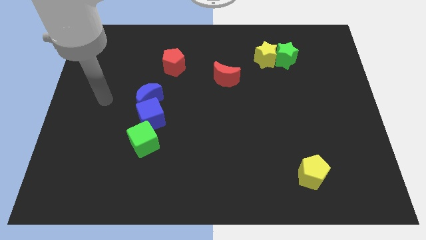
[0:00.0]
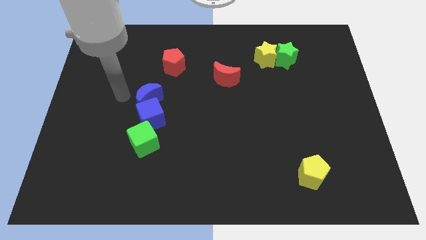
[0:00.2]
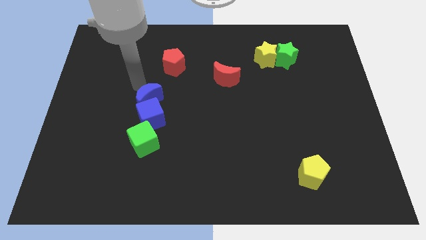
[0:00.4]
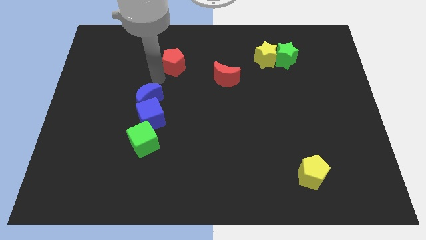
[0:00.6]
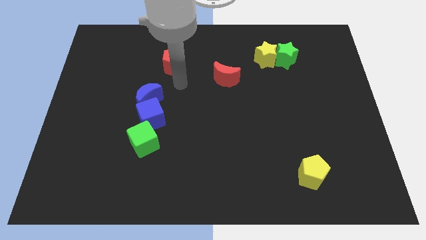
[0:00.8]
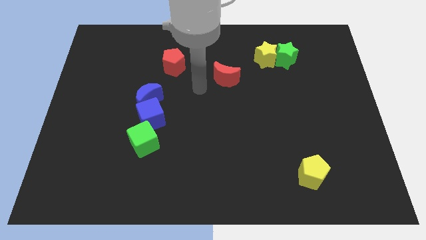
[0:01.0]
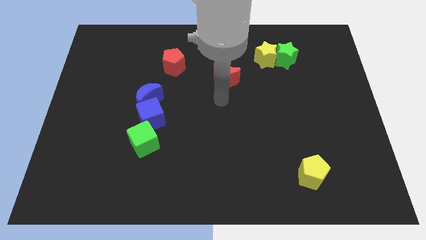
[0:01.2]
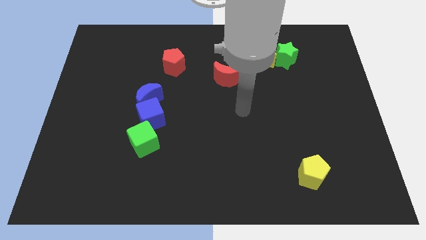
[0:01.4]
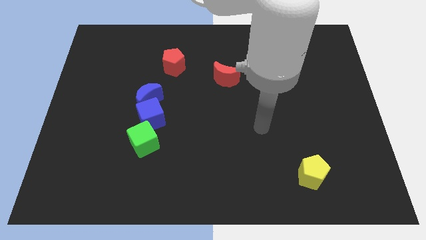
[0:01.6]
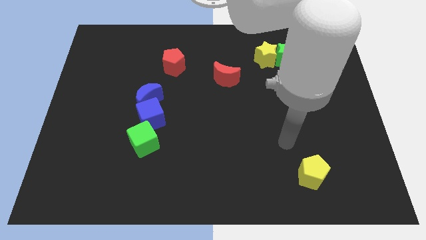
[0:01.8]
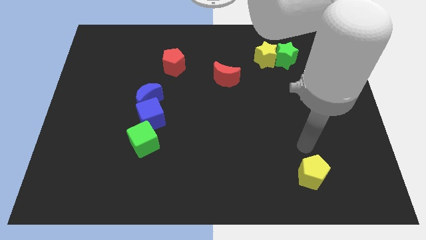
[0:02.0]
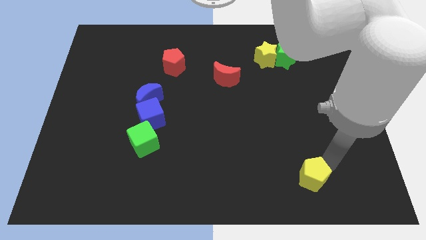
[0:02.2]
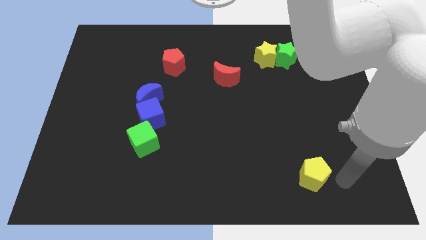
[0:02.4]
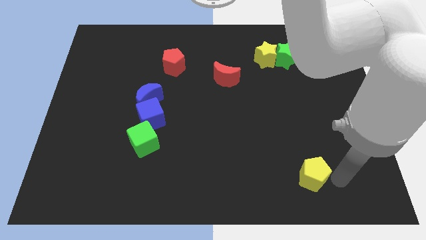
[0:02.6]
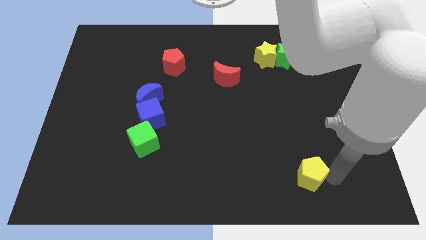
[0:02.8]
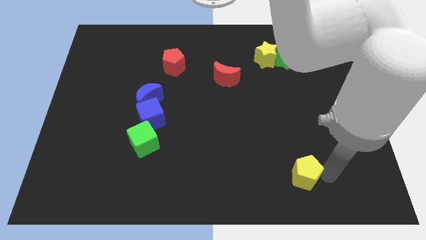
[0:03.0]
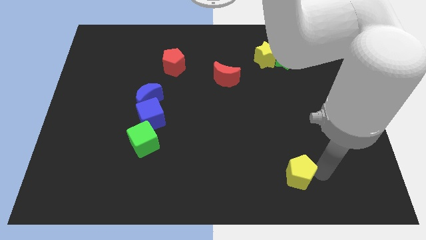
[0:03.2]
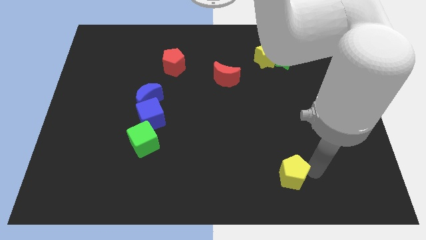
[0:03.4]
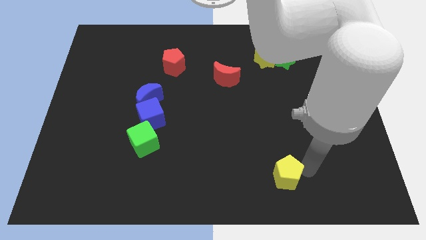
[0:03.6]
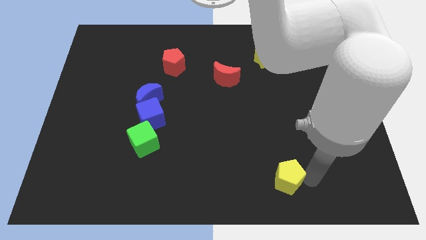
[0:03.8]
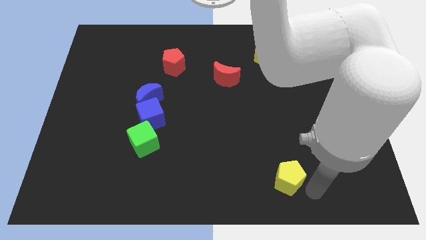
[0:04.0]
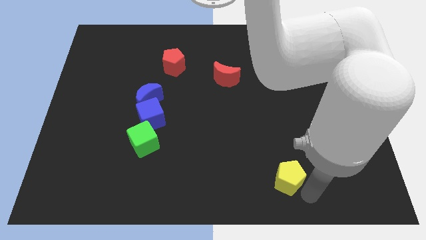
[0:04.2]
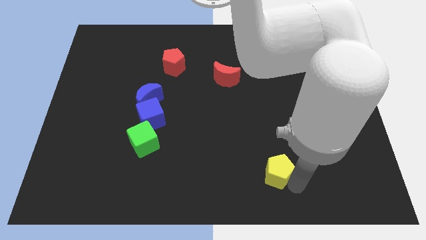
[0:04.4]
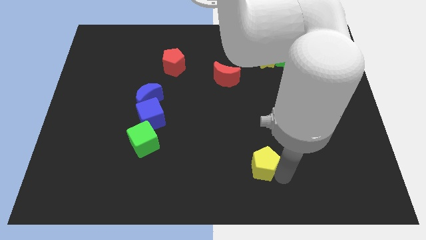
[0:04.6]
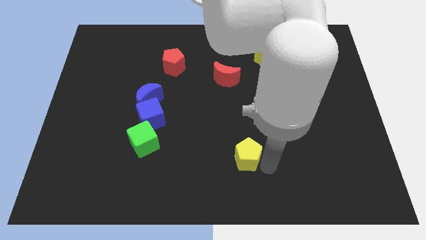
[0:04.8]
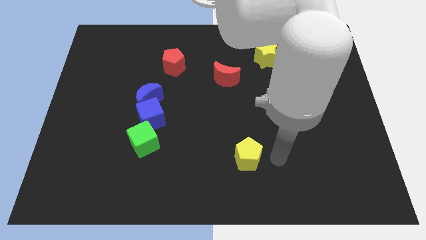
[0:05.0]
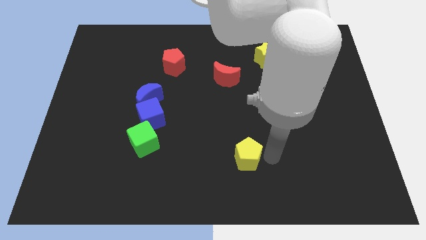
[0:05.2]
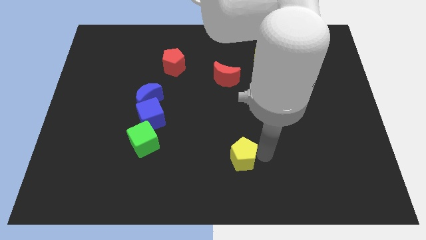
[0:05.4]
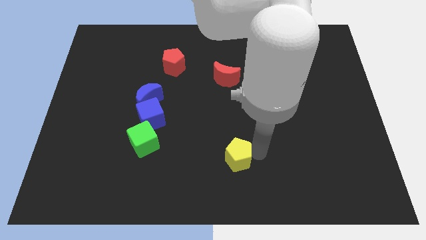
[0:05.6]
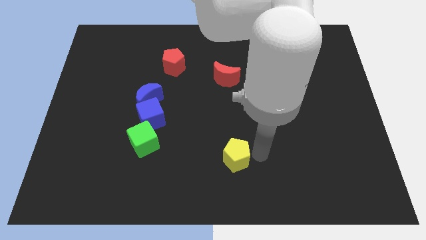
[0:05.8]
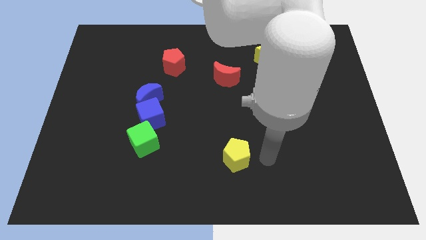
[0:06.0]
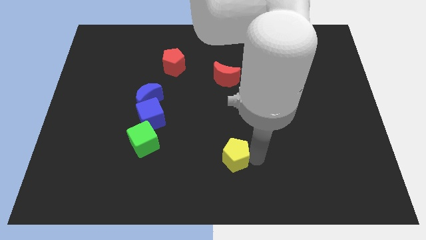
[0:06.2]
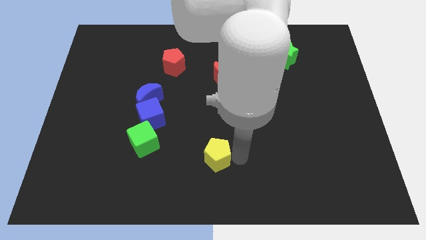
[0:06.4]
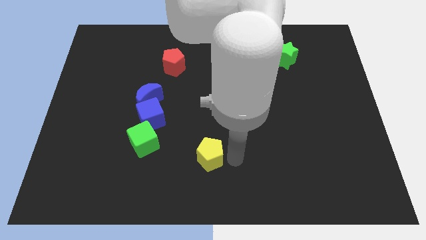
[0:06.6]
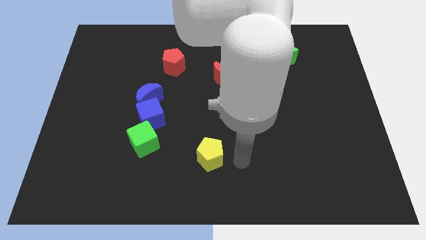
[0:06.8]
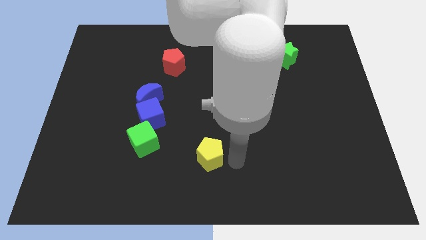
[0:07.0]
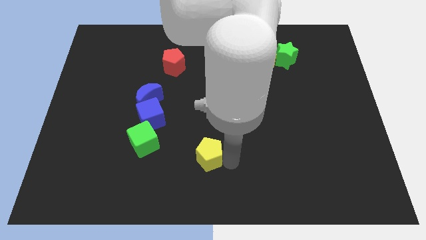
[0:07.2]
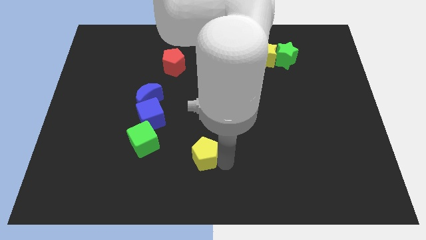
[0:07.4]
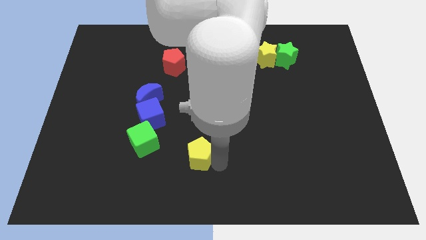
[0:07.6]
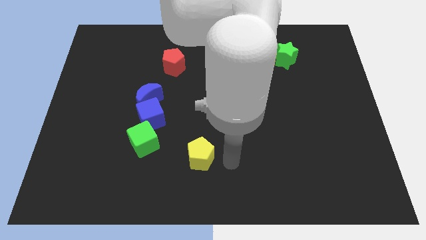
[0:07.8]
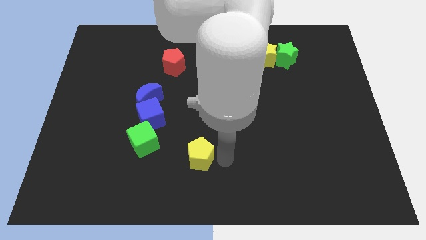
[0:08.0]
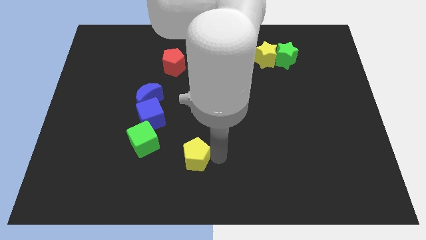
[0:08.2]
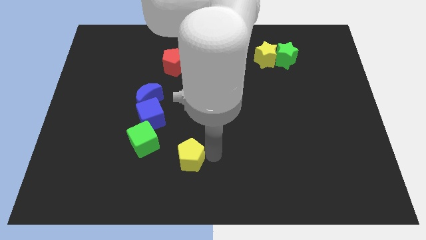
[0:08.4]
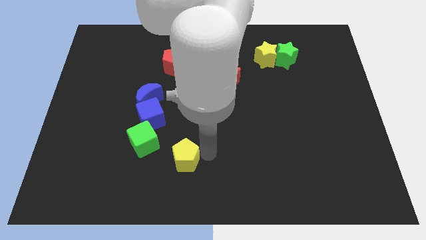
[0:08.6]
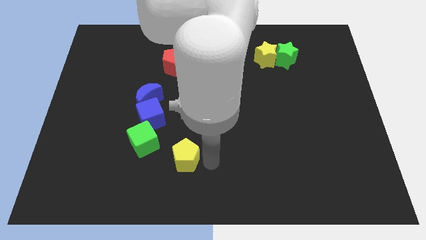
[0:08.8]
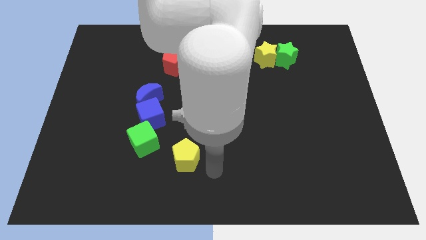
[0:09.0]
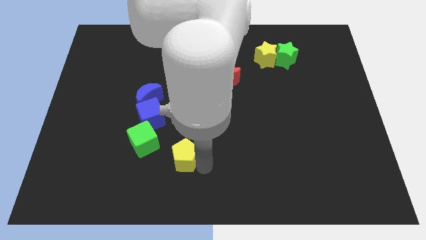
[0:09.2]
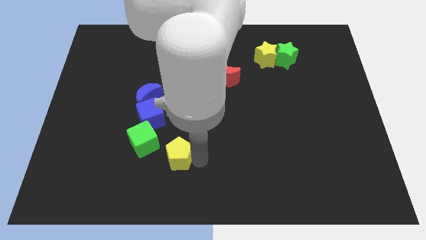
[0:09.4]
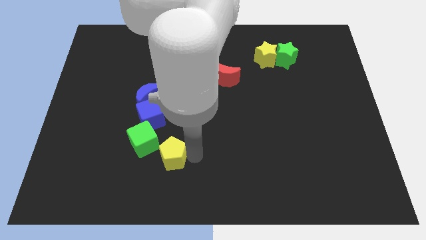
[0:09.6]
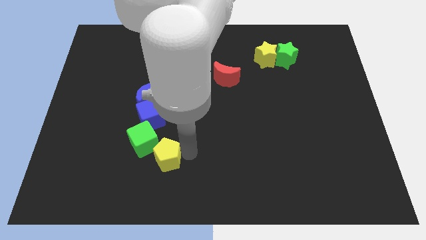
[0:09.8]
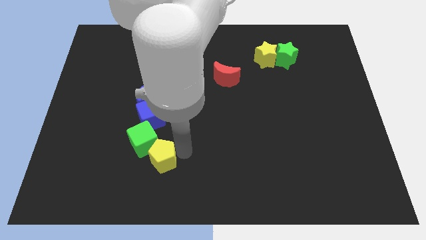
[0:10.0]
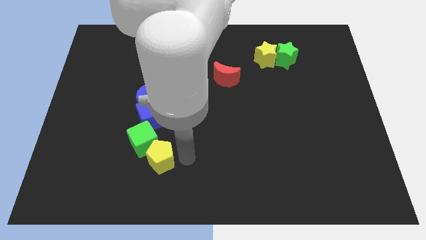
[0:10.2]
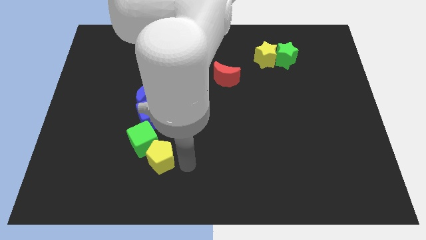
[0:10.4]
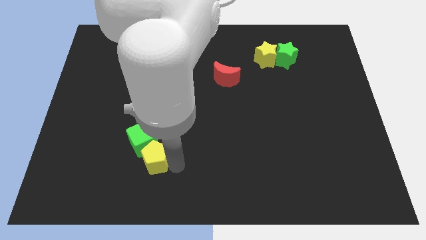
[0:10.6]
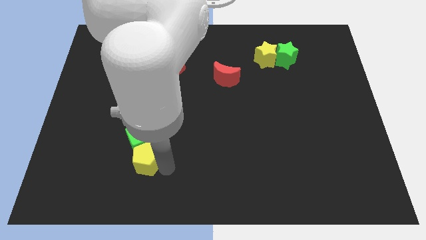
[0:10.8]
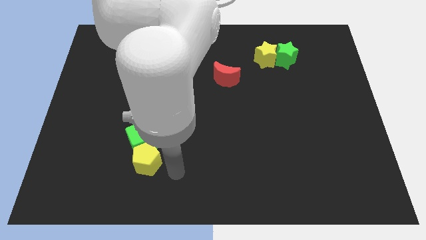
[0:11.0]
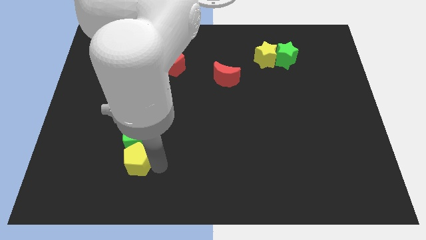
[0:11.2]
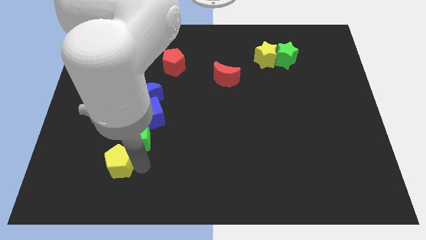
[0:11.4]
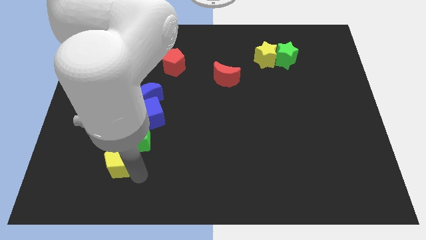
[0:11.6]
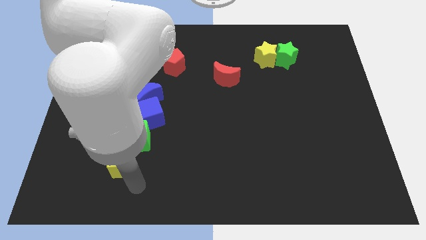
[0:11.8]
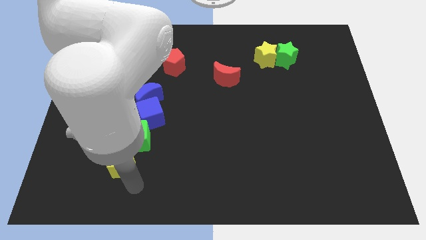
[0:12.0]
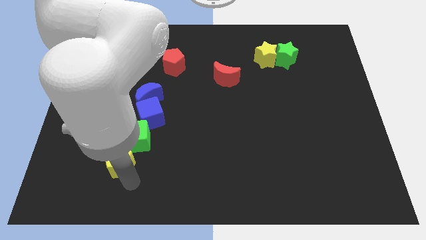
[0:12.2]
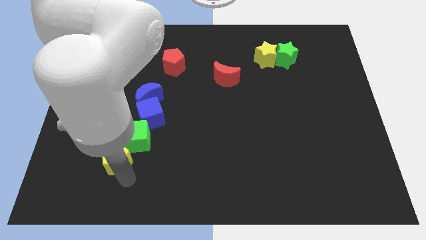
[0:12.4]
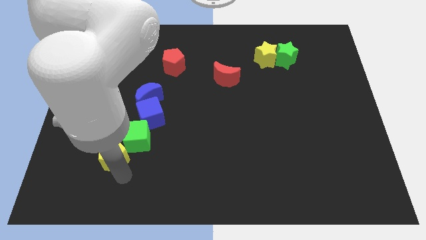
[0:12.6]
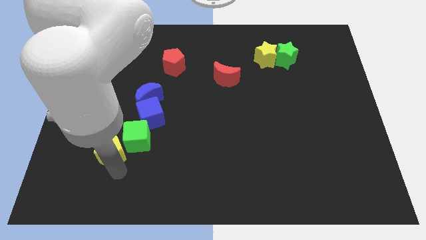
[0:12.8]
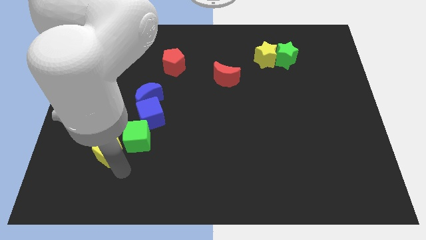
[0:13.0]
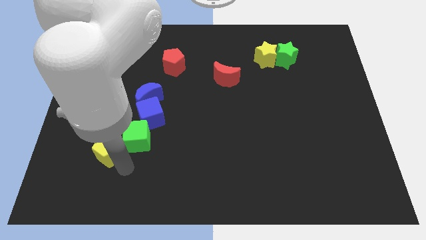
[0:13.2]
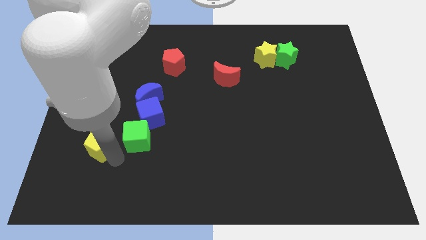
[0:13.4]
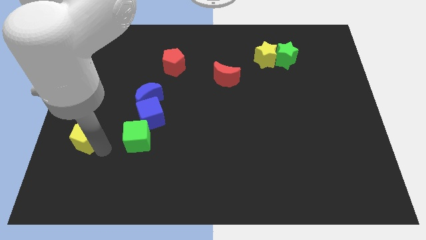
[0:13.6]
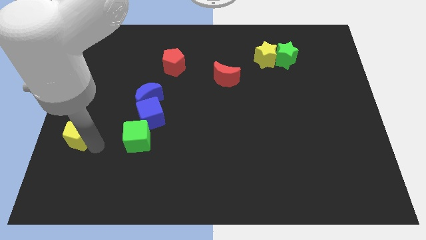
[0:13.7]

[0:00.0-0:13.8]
put the yellow pentagon to the left side

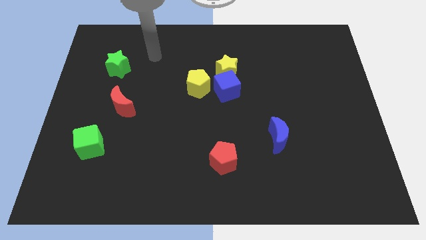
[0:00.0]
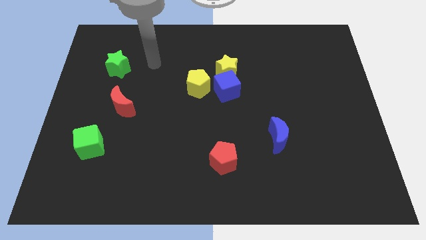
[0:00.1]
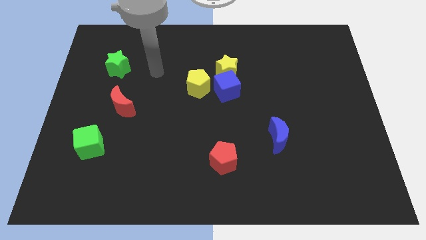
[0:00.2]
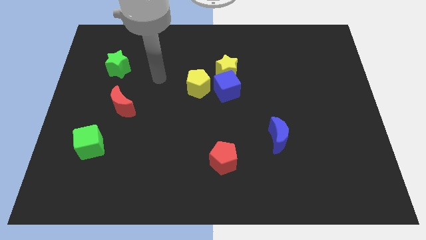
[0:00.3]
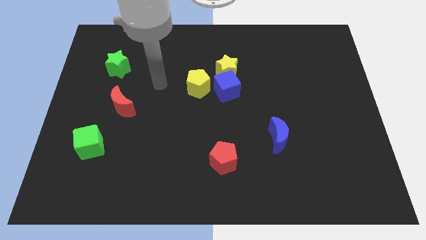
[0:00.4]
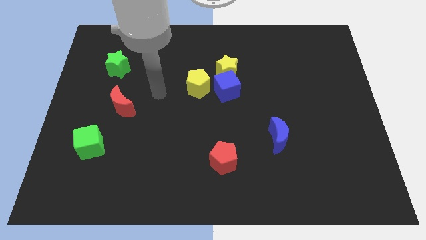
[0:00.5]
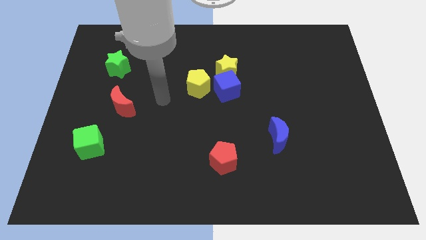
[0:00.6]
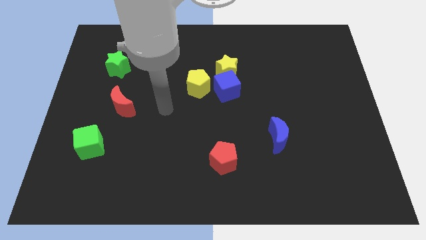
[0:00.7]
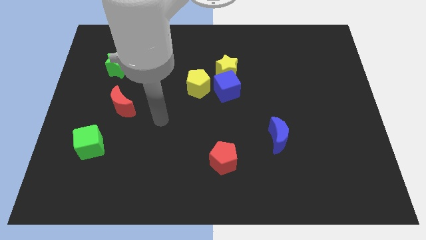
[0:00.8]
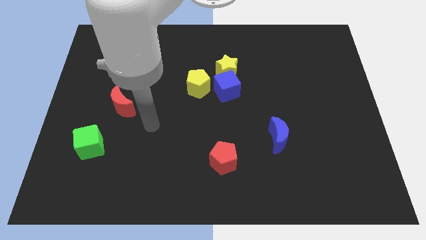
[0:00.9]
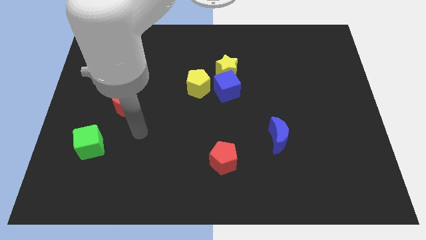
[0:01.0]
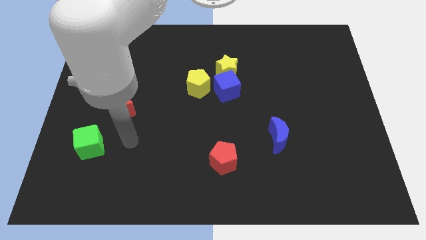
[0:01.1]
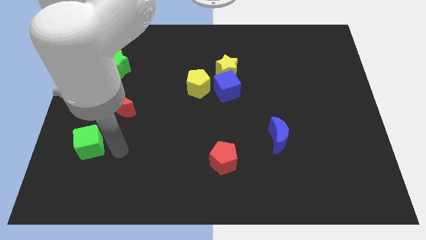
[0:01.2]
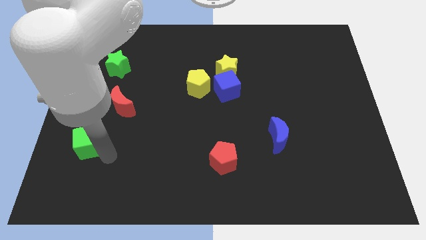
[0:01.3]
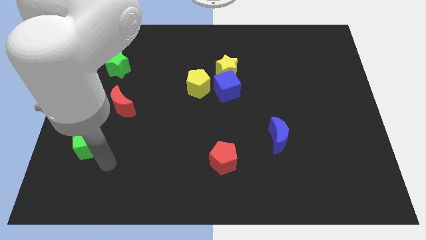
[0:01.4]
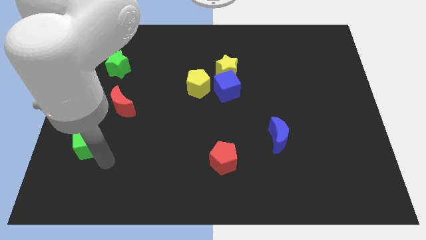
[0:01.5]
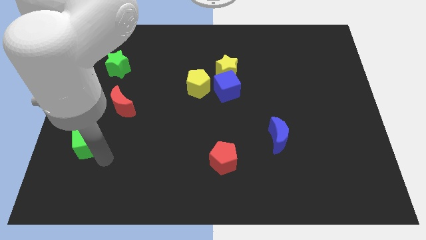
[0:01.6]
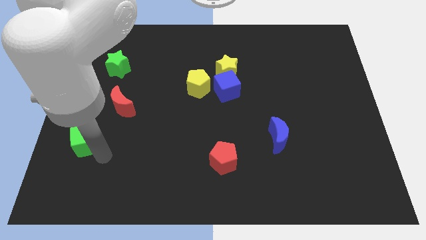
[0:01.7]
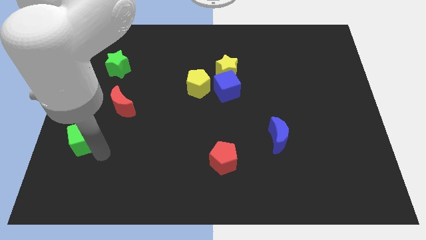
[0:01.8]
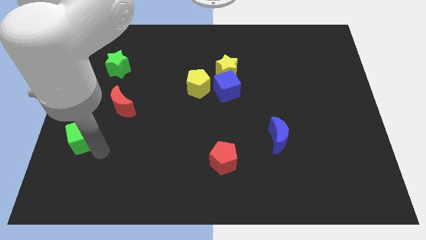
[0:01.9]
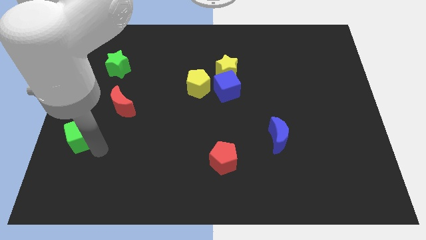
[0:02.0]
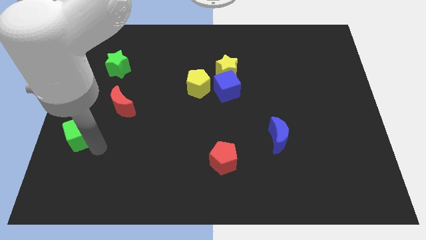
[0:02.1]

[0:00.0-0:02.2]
move the green cube to the center left
